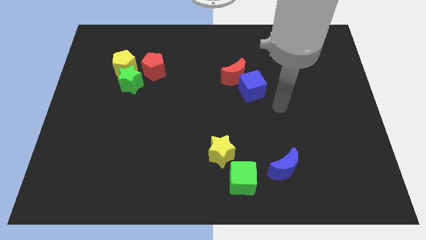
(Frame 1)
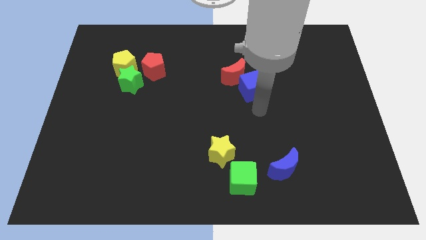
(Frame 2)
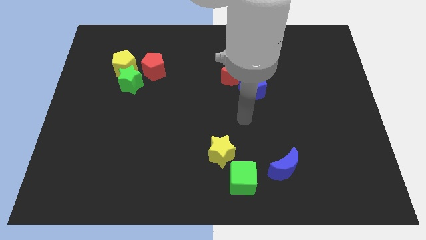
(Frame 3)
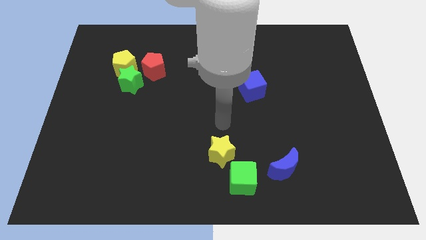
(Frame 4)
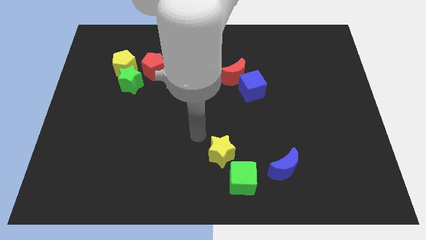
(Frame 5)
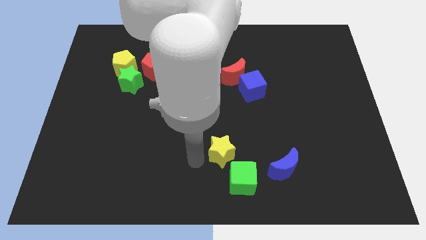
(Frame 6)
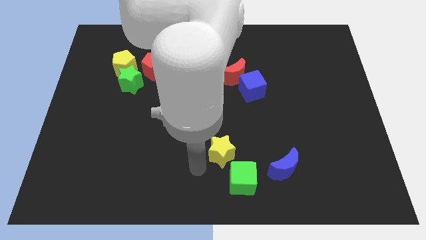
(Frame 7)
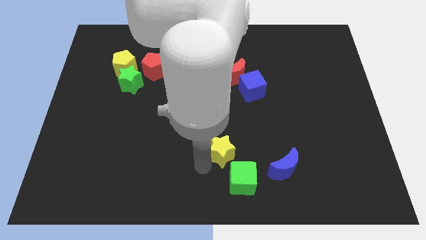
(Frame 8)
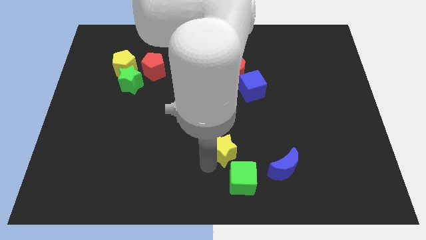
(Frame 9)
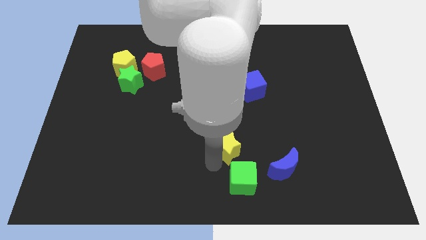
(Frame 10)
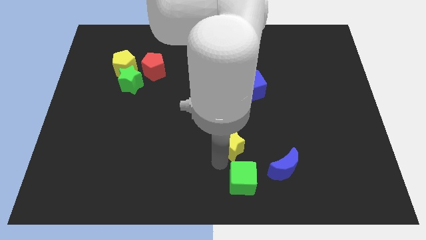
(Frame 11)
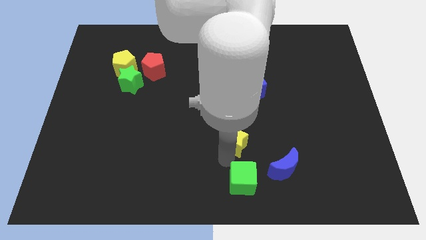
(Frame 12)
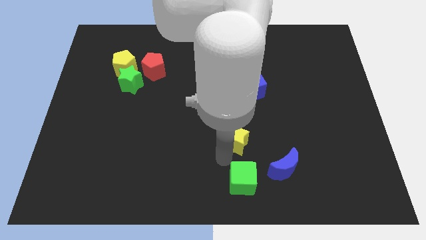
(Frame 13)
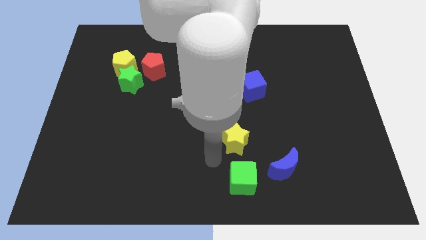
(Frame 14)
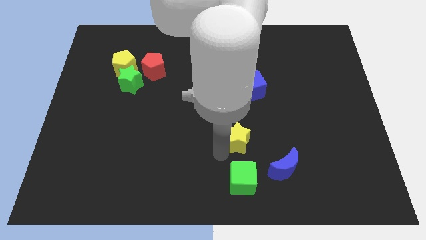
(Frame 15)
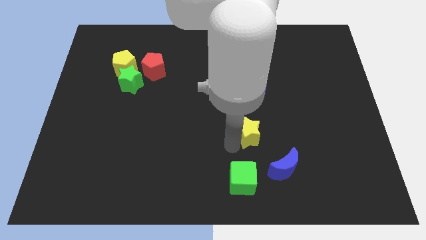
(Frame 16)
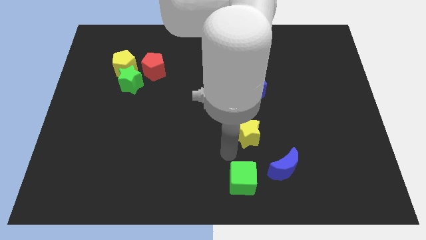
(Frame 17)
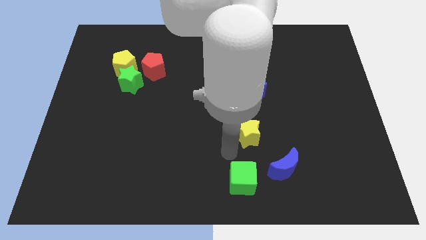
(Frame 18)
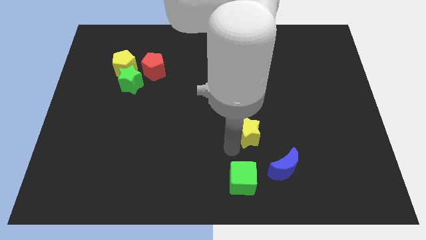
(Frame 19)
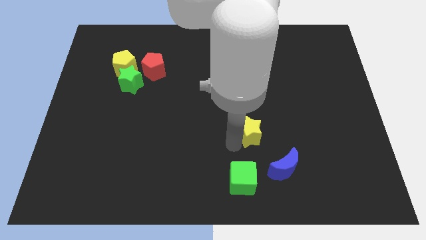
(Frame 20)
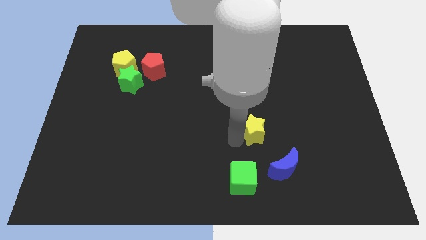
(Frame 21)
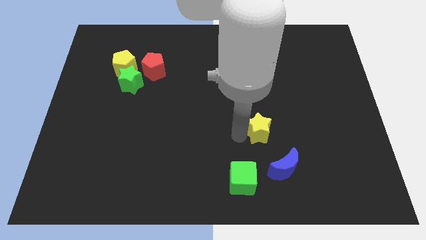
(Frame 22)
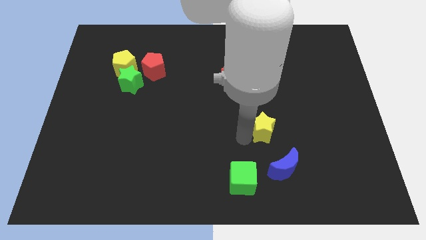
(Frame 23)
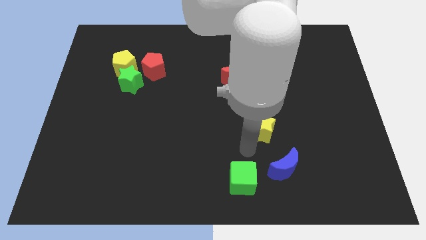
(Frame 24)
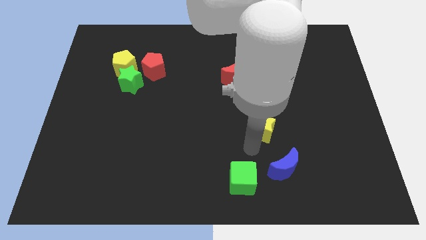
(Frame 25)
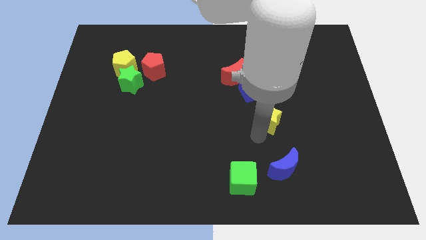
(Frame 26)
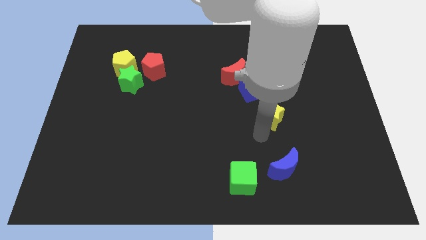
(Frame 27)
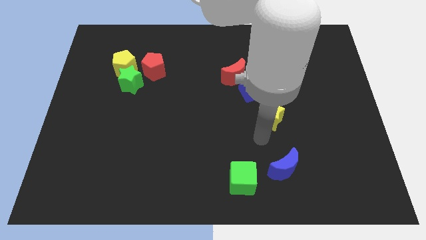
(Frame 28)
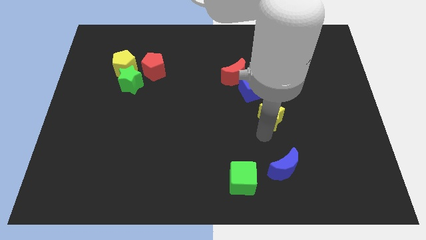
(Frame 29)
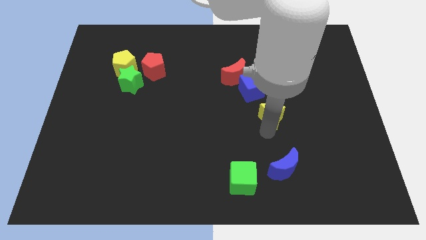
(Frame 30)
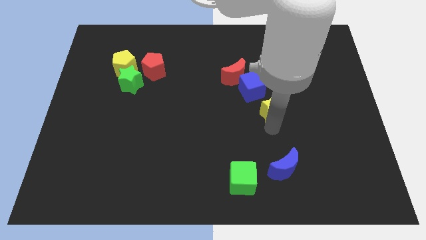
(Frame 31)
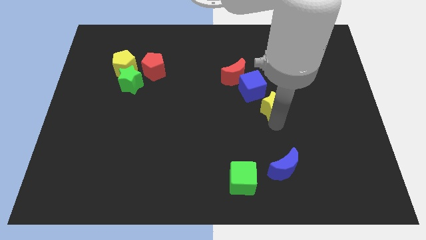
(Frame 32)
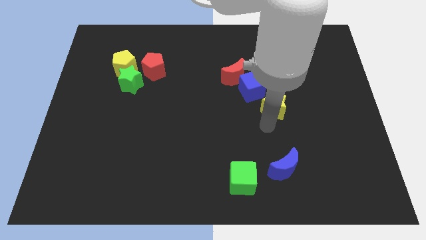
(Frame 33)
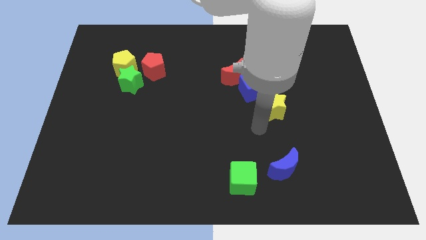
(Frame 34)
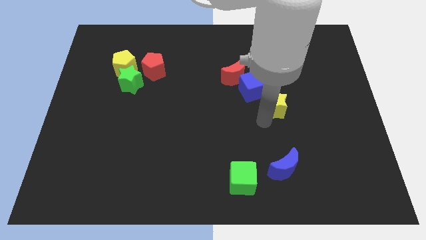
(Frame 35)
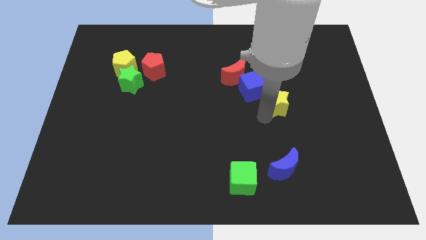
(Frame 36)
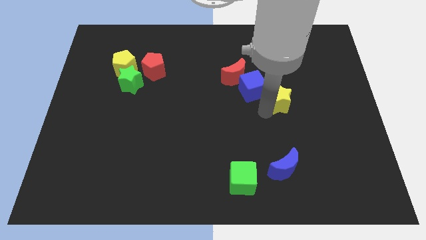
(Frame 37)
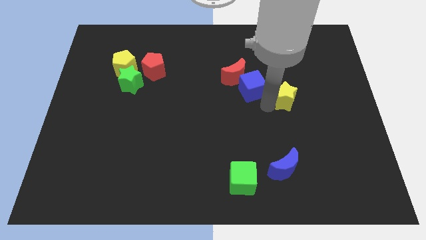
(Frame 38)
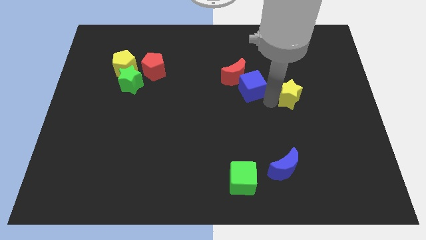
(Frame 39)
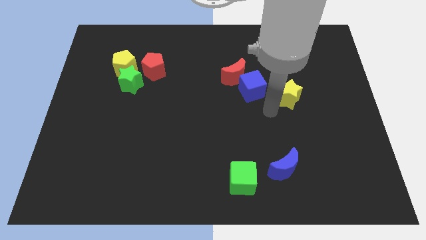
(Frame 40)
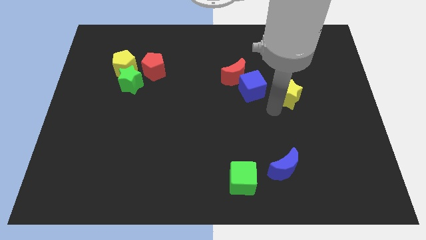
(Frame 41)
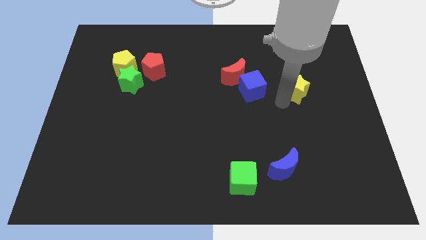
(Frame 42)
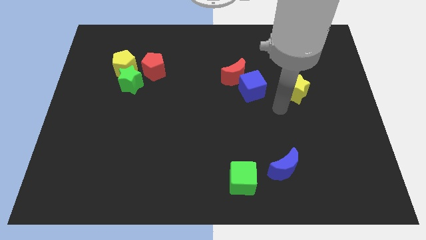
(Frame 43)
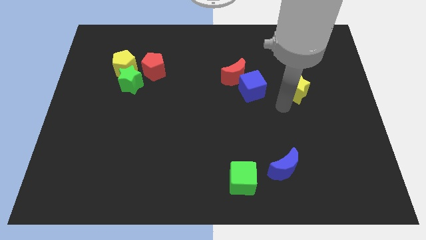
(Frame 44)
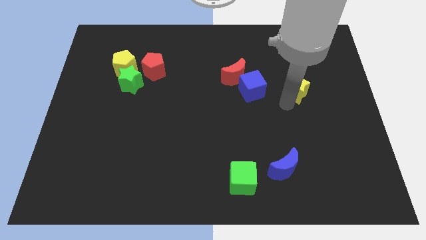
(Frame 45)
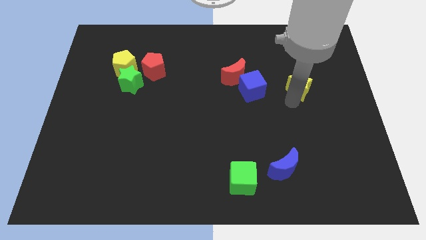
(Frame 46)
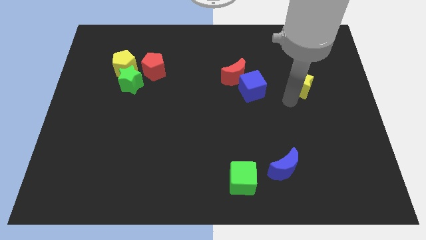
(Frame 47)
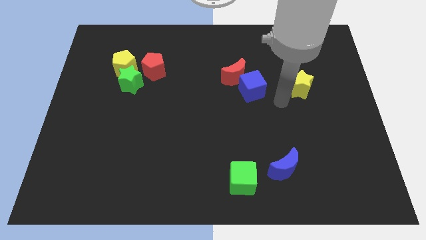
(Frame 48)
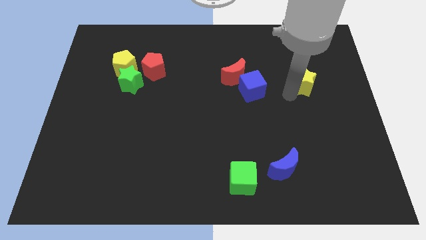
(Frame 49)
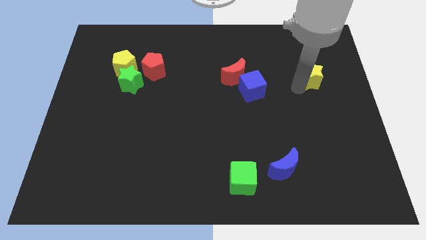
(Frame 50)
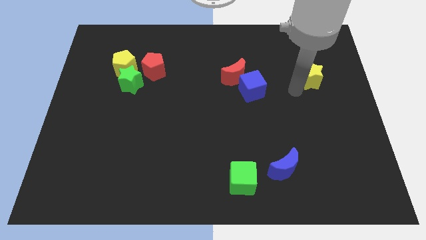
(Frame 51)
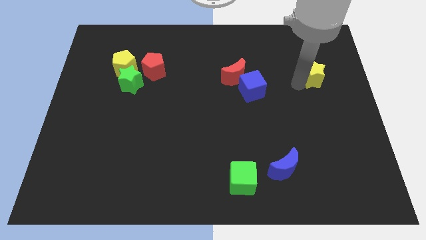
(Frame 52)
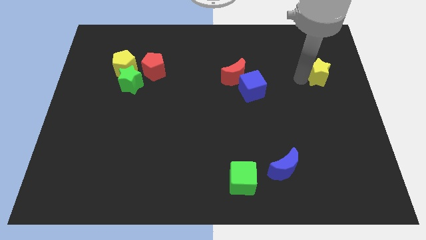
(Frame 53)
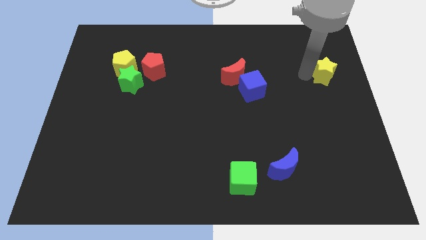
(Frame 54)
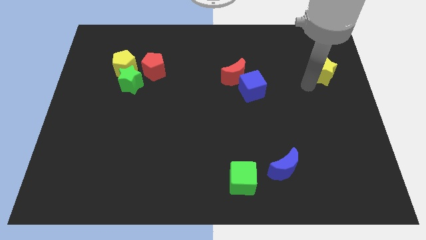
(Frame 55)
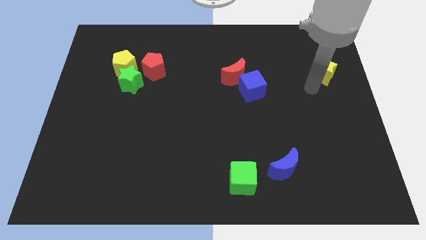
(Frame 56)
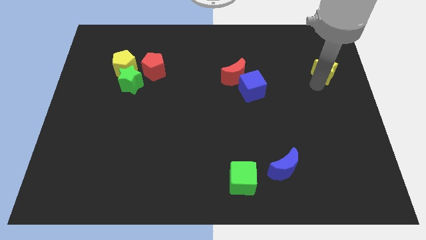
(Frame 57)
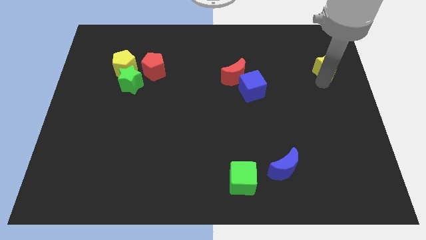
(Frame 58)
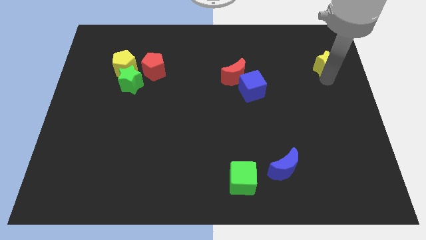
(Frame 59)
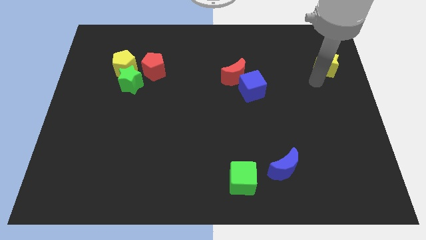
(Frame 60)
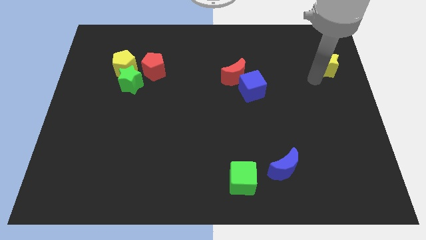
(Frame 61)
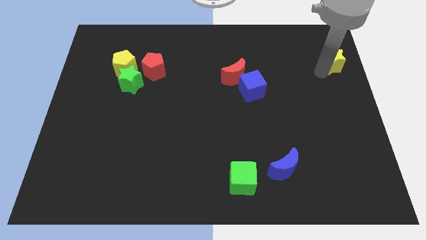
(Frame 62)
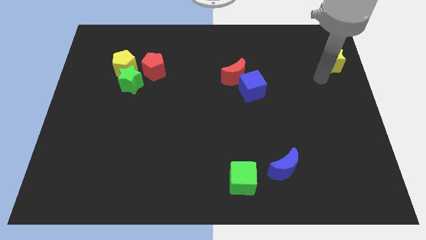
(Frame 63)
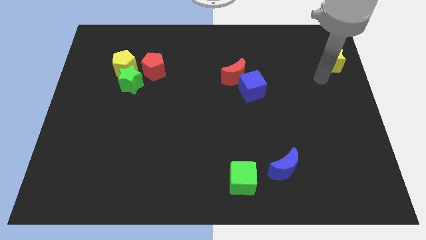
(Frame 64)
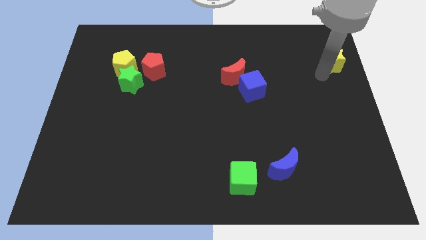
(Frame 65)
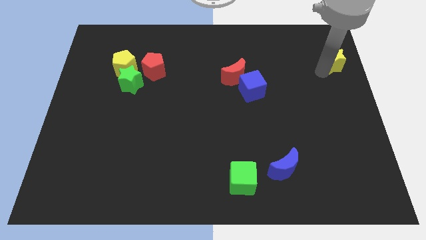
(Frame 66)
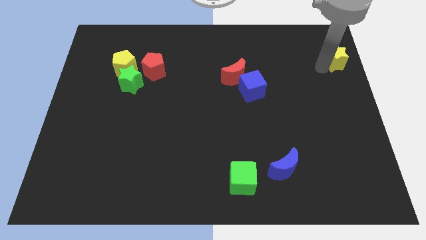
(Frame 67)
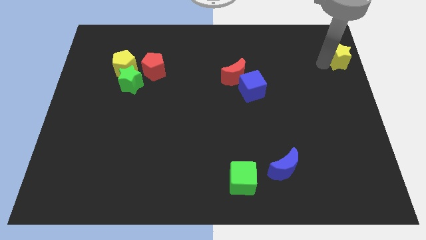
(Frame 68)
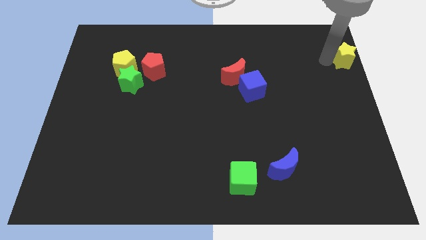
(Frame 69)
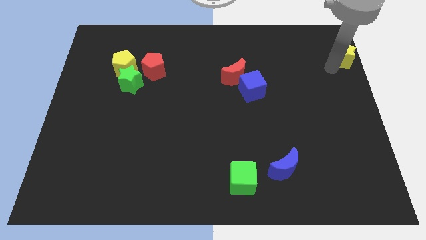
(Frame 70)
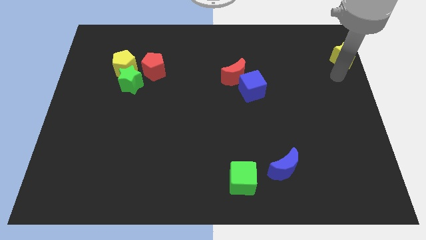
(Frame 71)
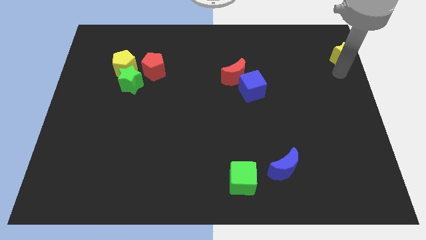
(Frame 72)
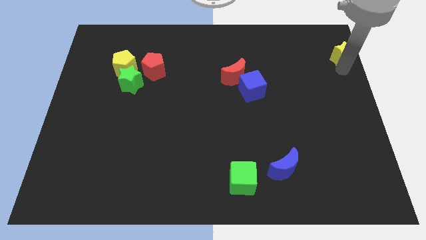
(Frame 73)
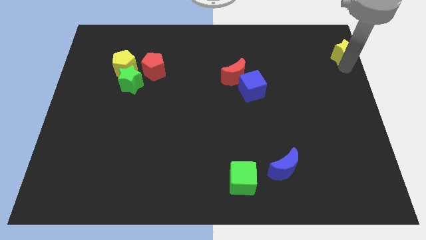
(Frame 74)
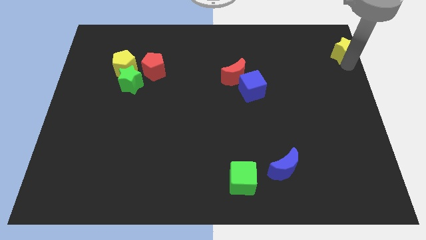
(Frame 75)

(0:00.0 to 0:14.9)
push the yellow star to the upper right corner
